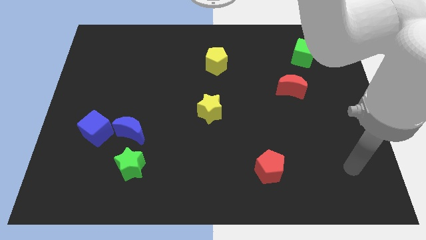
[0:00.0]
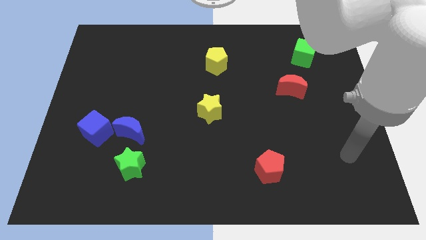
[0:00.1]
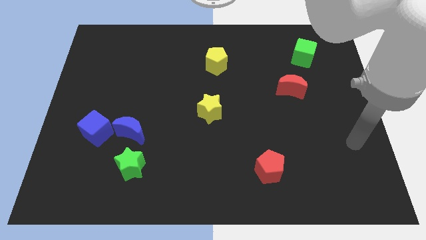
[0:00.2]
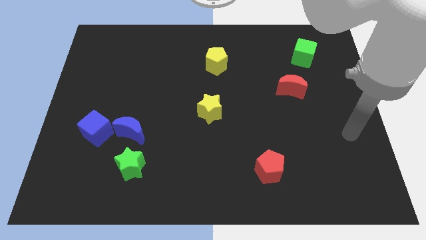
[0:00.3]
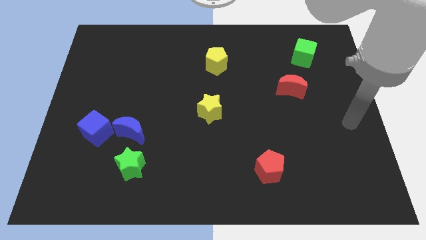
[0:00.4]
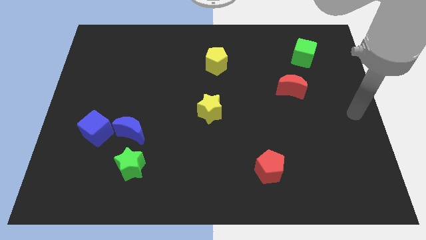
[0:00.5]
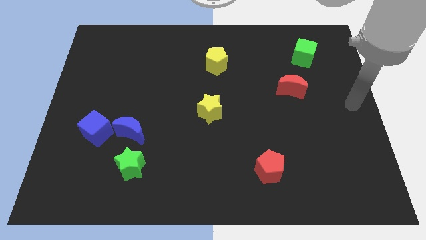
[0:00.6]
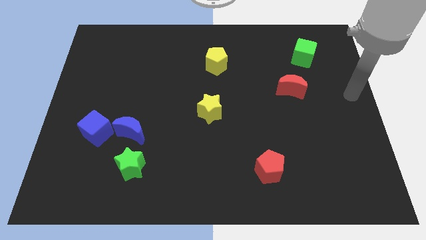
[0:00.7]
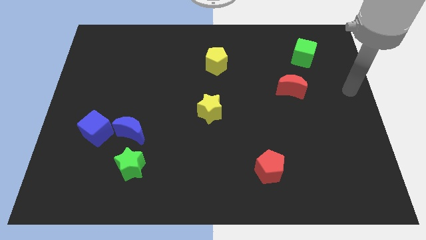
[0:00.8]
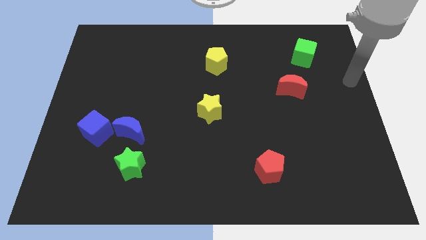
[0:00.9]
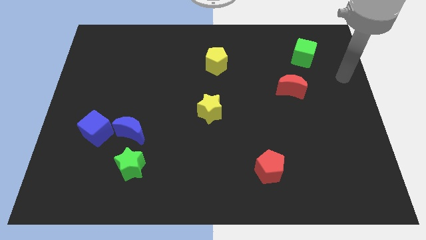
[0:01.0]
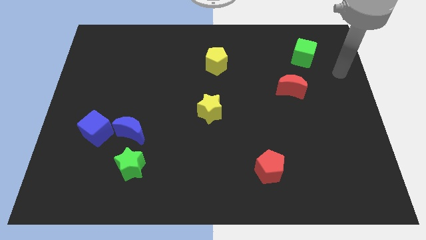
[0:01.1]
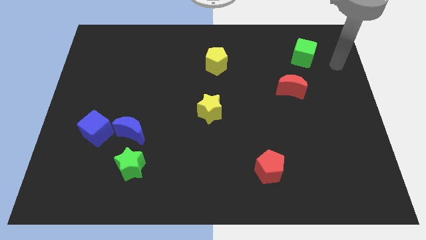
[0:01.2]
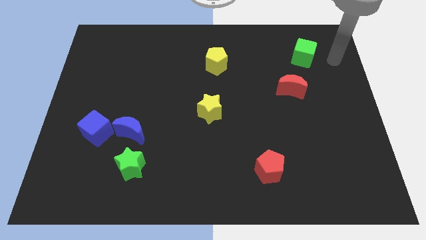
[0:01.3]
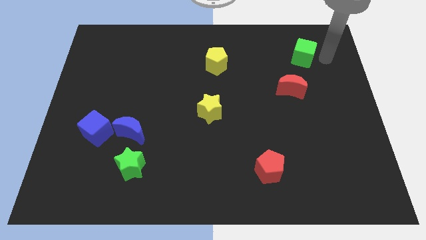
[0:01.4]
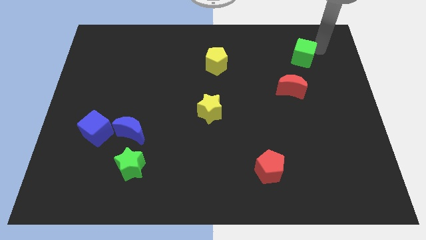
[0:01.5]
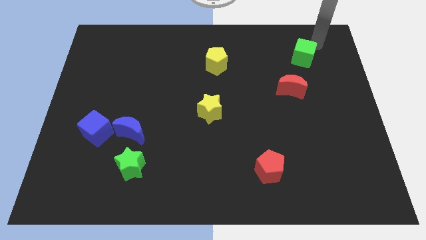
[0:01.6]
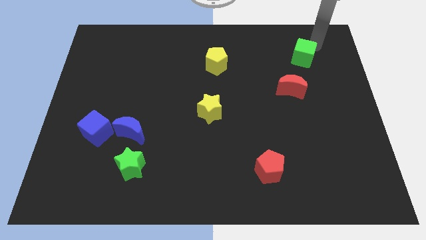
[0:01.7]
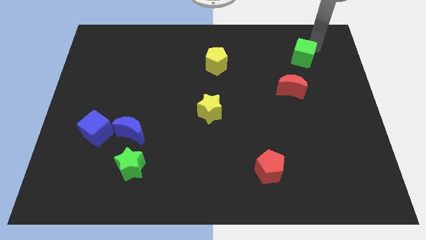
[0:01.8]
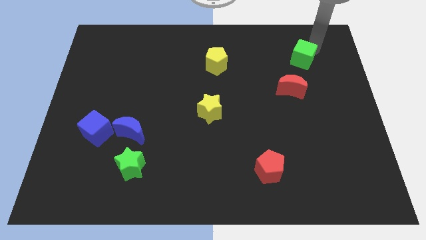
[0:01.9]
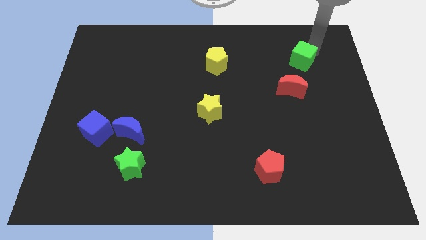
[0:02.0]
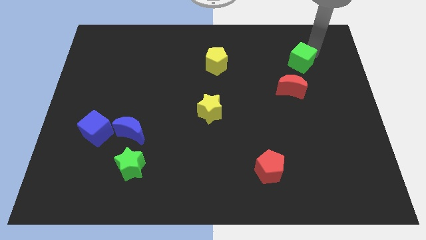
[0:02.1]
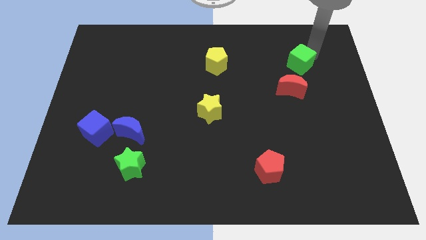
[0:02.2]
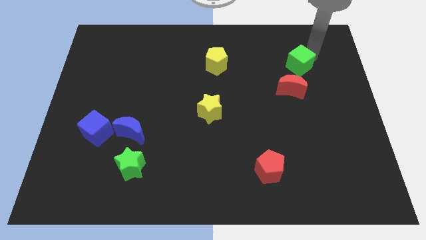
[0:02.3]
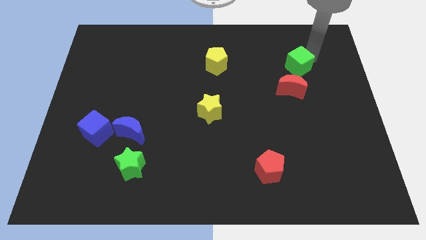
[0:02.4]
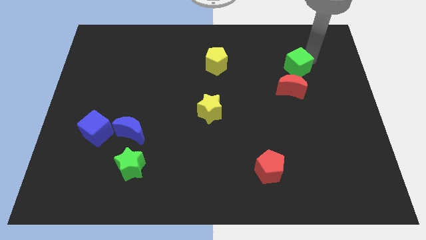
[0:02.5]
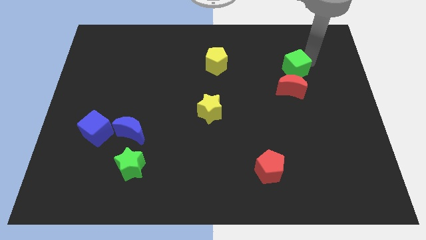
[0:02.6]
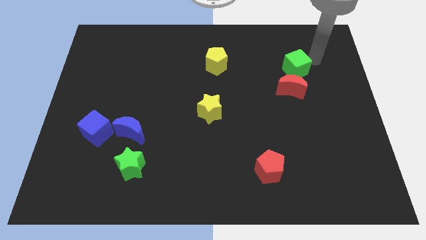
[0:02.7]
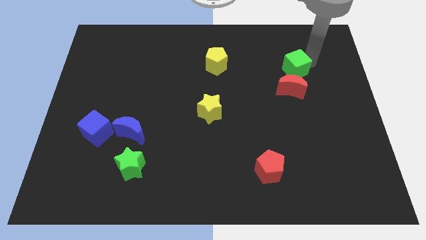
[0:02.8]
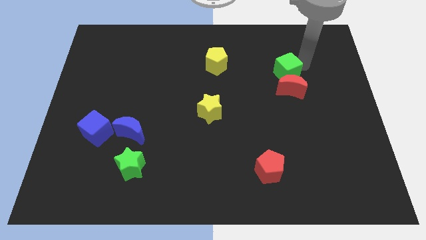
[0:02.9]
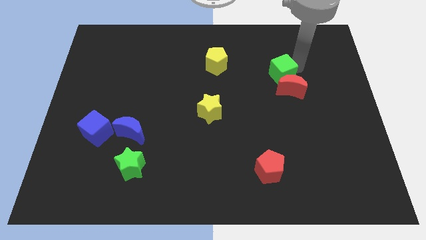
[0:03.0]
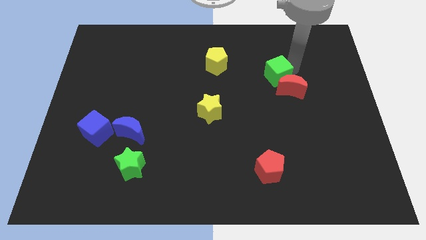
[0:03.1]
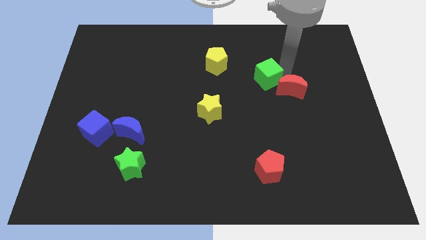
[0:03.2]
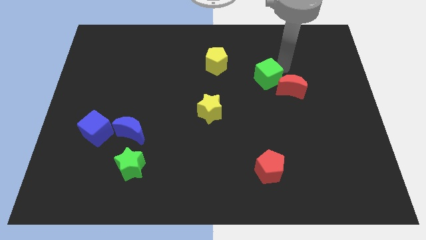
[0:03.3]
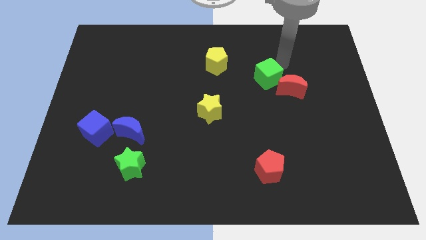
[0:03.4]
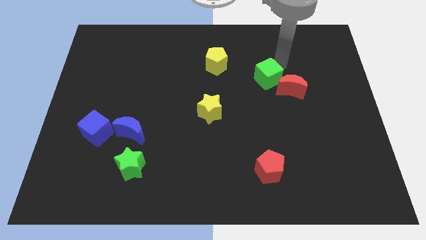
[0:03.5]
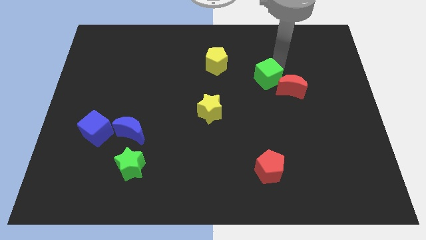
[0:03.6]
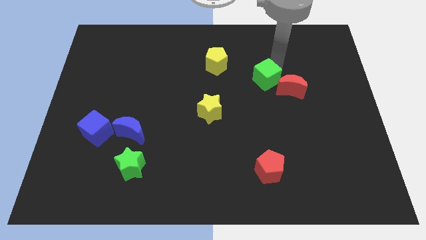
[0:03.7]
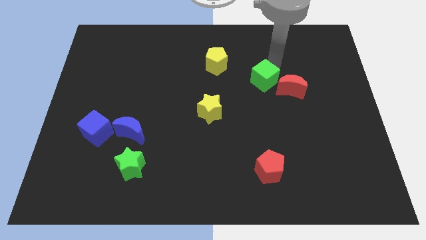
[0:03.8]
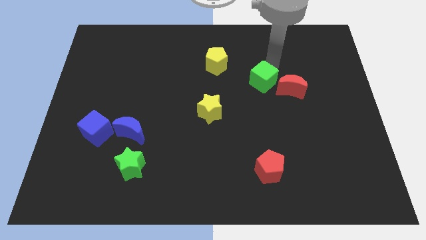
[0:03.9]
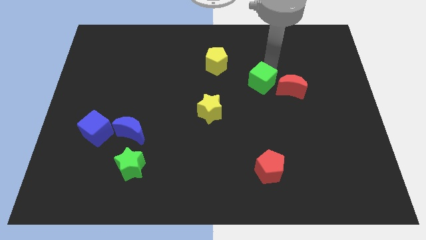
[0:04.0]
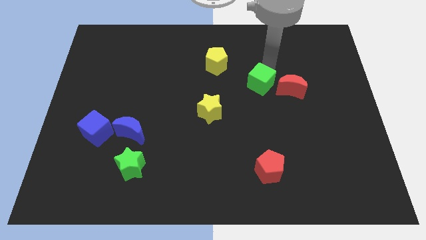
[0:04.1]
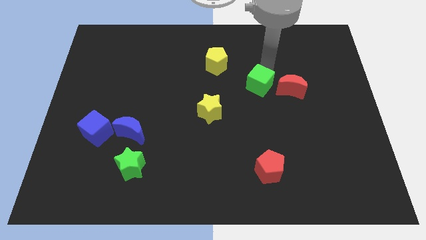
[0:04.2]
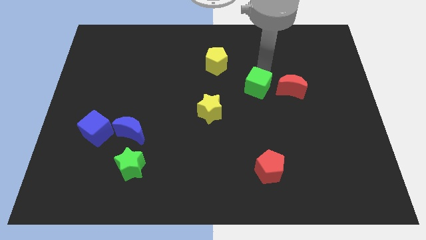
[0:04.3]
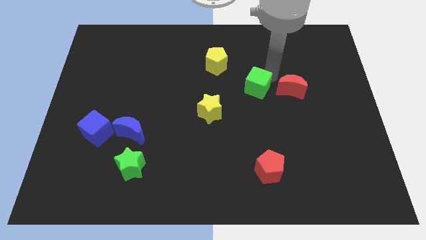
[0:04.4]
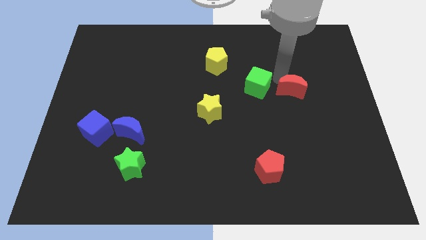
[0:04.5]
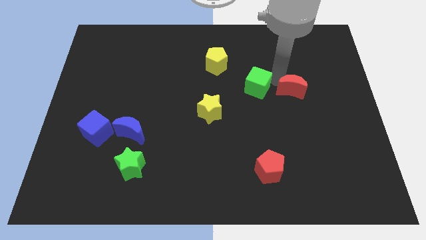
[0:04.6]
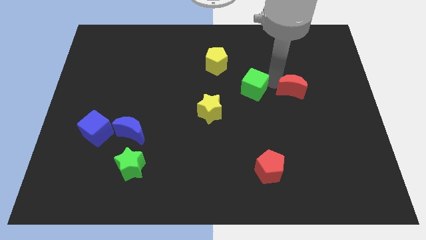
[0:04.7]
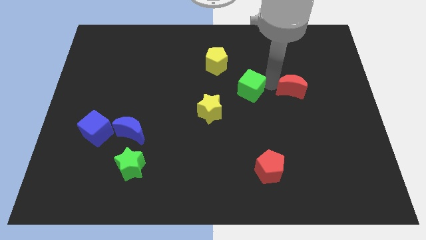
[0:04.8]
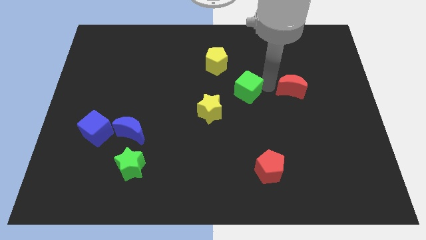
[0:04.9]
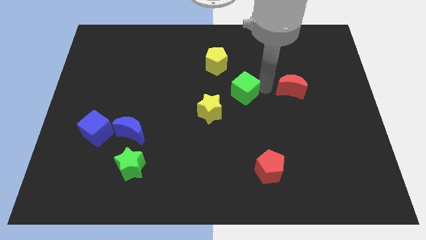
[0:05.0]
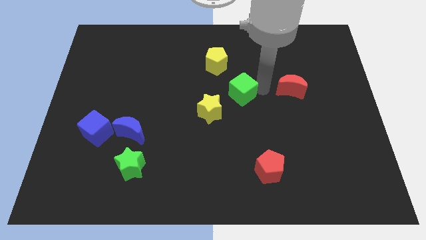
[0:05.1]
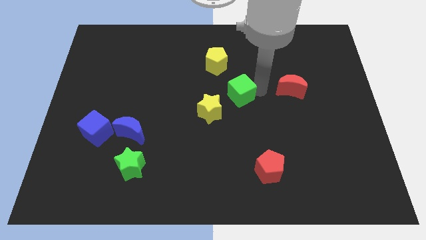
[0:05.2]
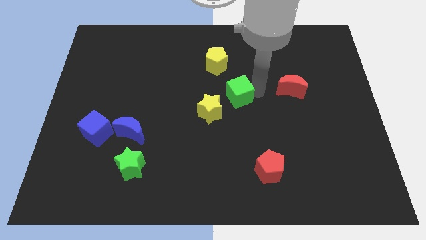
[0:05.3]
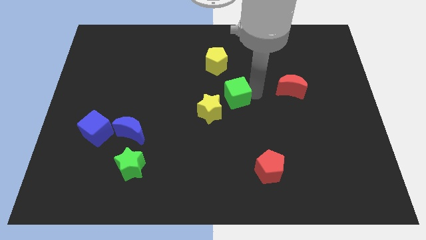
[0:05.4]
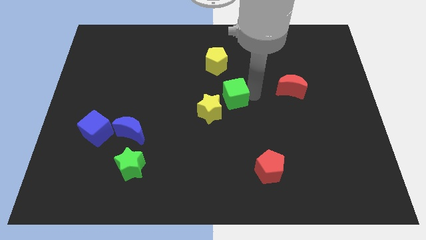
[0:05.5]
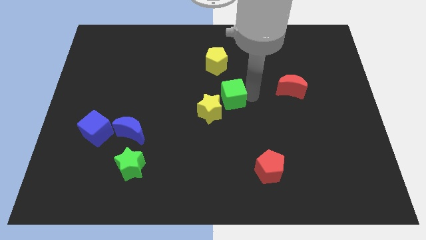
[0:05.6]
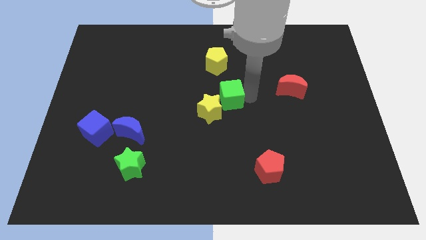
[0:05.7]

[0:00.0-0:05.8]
slide the green cube to the yellow star

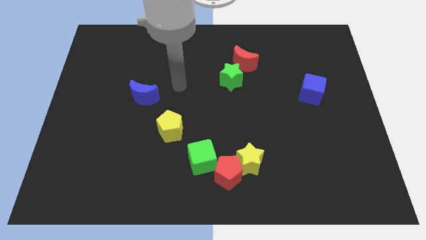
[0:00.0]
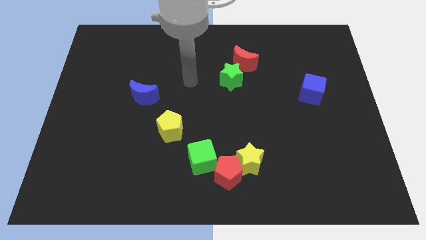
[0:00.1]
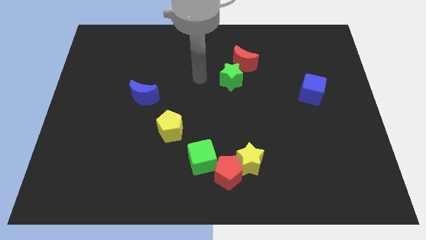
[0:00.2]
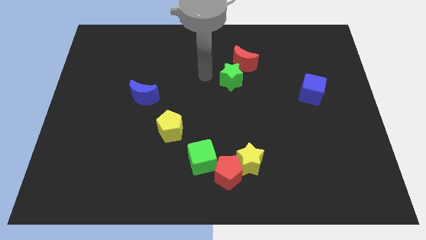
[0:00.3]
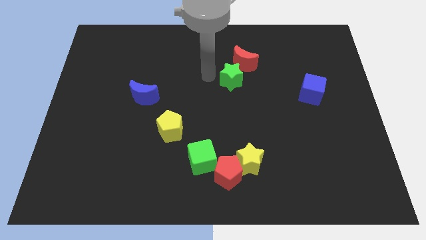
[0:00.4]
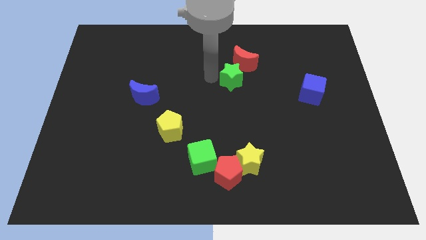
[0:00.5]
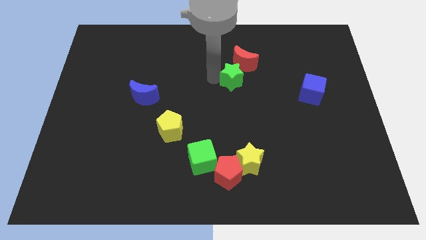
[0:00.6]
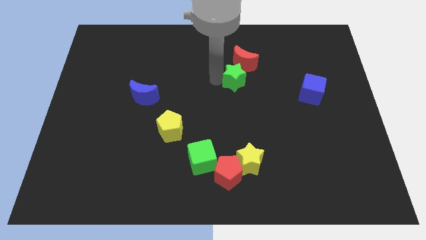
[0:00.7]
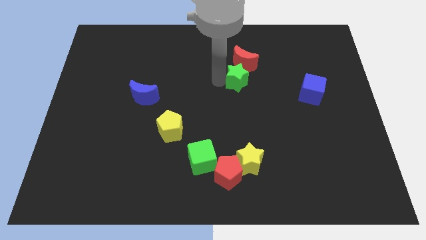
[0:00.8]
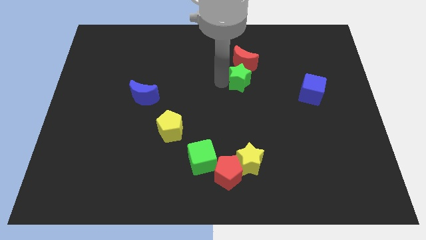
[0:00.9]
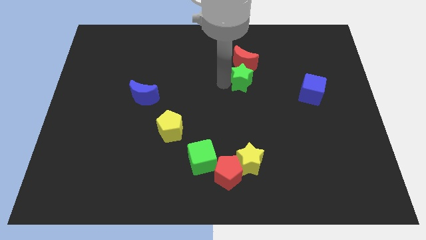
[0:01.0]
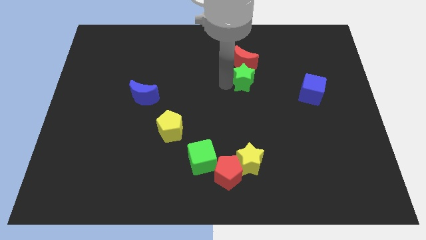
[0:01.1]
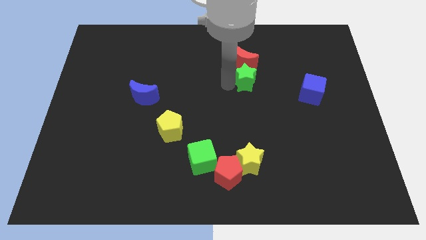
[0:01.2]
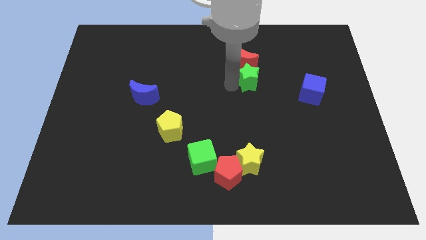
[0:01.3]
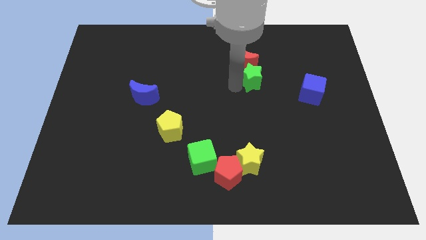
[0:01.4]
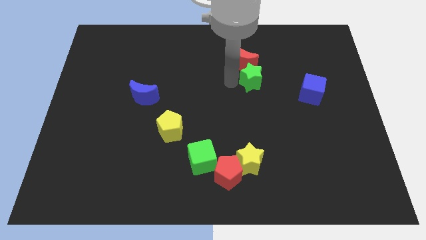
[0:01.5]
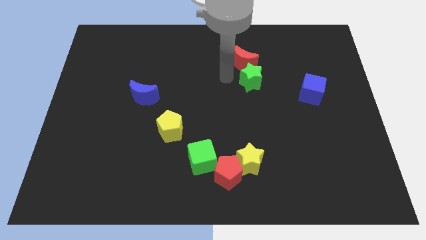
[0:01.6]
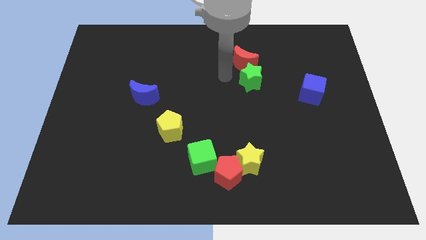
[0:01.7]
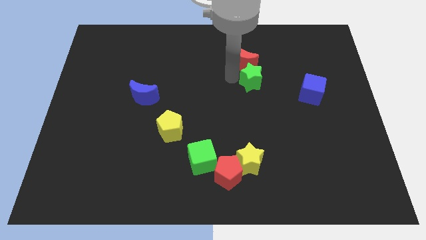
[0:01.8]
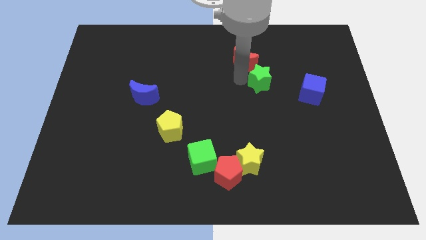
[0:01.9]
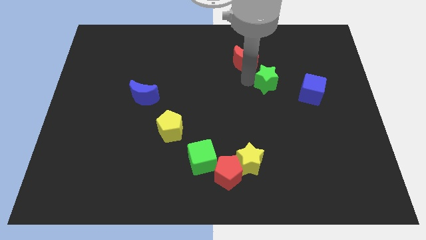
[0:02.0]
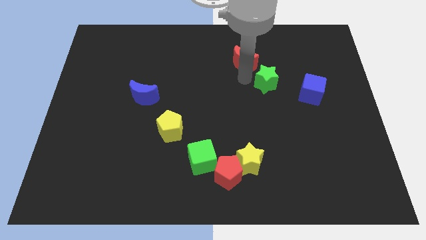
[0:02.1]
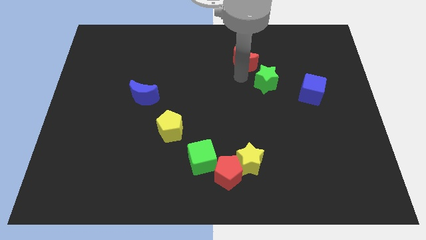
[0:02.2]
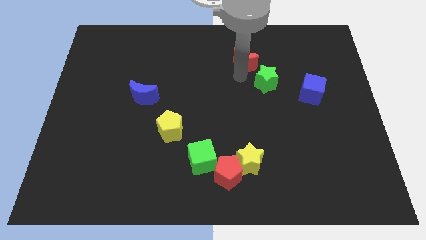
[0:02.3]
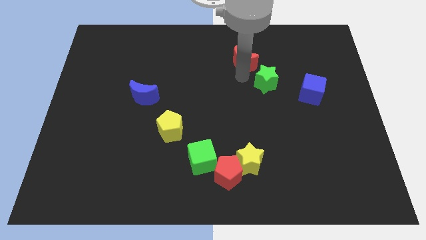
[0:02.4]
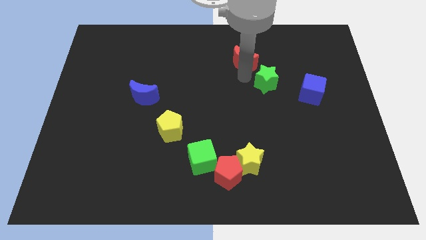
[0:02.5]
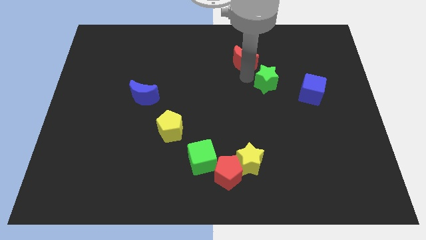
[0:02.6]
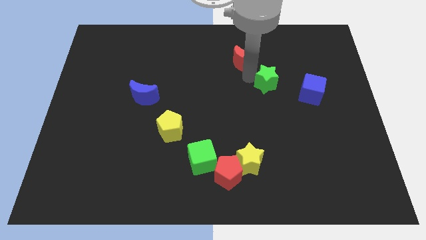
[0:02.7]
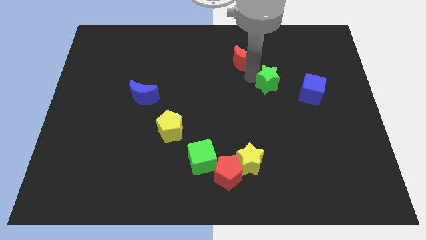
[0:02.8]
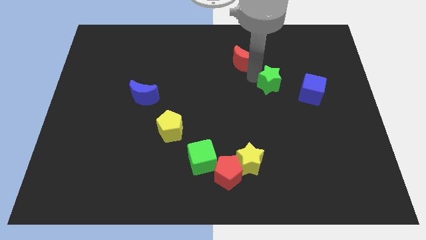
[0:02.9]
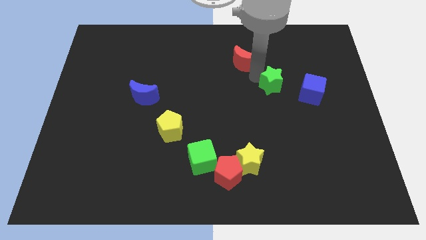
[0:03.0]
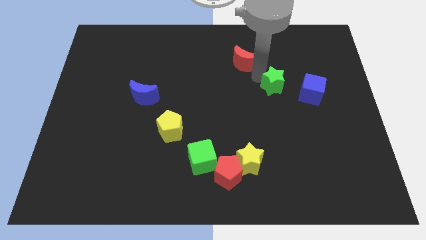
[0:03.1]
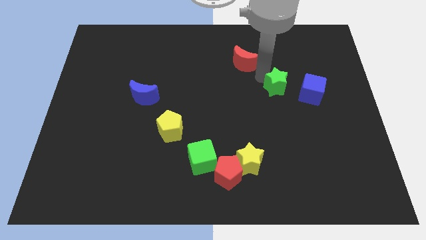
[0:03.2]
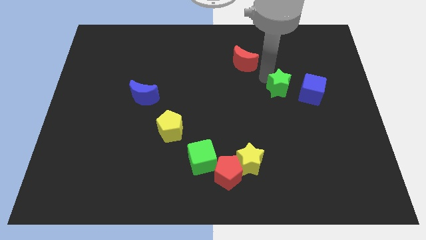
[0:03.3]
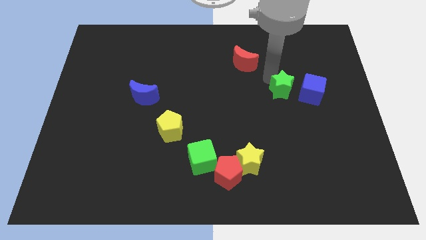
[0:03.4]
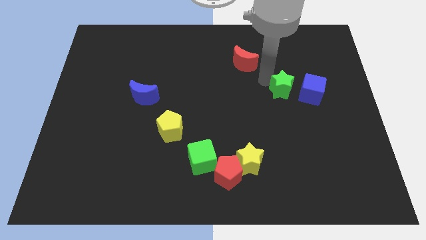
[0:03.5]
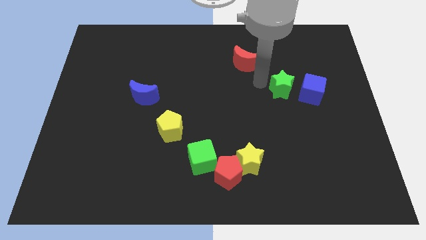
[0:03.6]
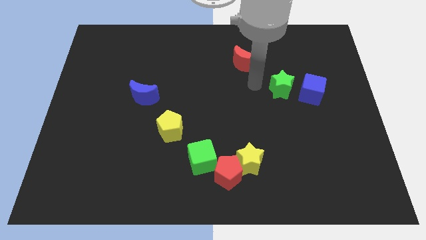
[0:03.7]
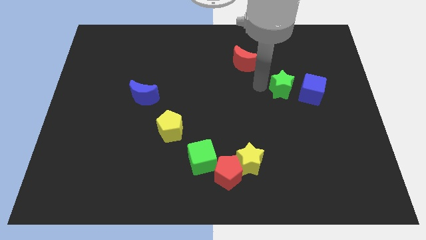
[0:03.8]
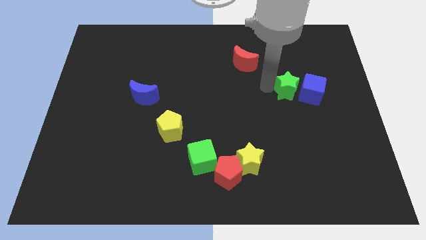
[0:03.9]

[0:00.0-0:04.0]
slide the green star towards the blue cube
